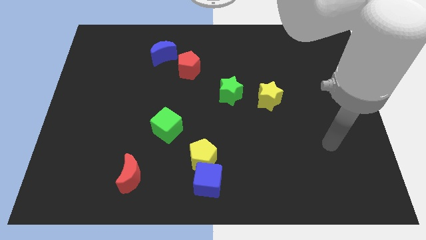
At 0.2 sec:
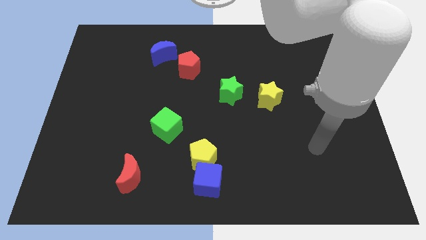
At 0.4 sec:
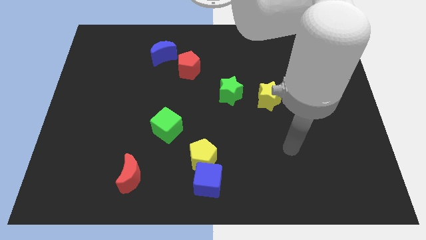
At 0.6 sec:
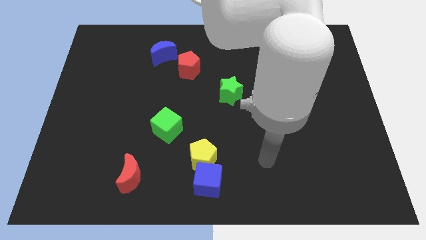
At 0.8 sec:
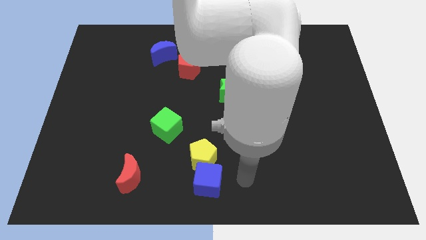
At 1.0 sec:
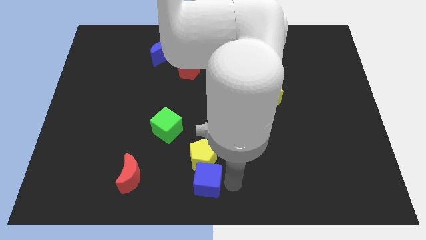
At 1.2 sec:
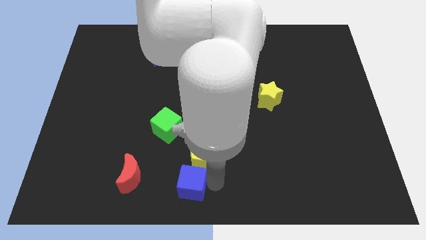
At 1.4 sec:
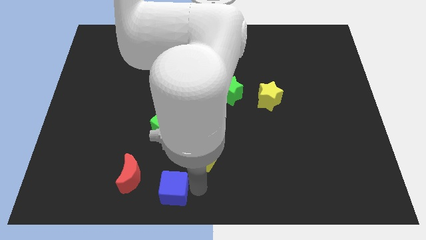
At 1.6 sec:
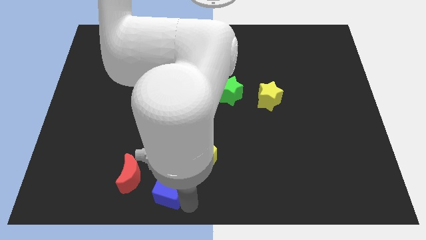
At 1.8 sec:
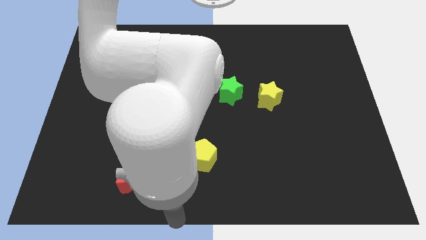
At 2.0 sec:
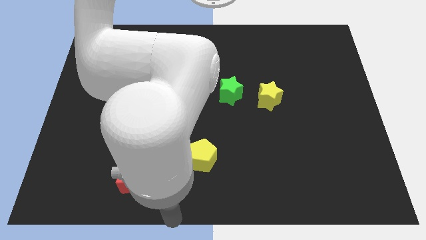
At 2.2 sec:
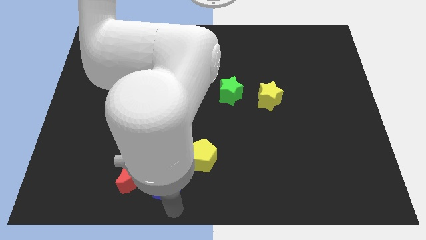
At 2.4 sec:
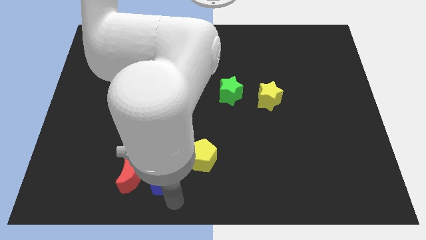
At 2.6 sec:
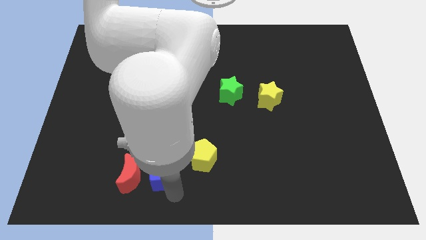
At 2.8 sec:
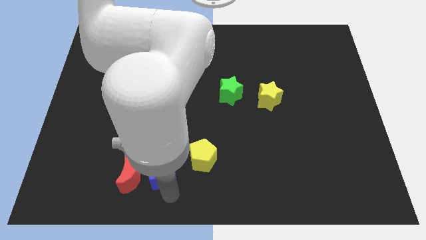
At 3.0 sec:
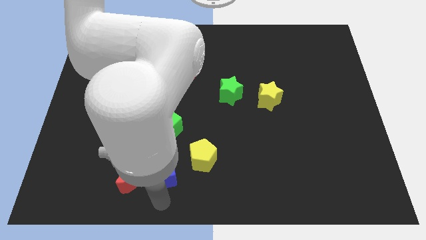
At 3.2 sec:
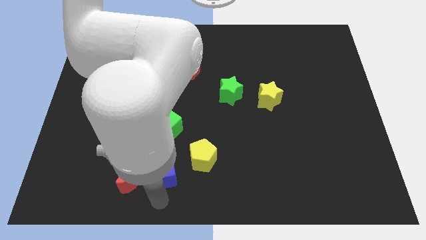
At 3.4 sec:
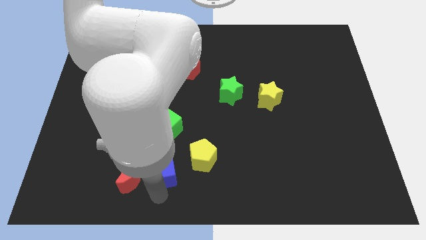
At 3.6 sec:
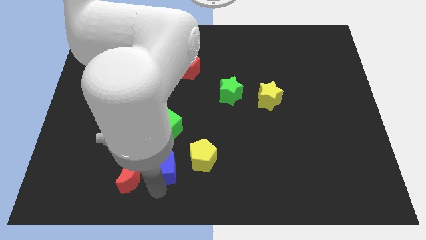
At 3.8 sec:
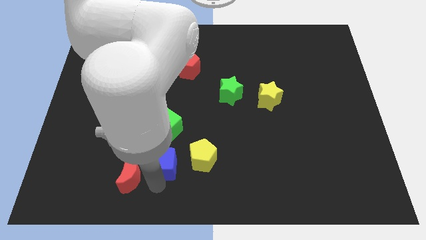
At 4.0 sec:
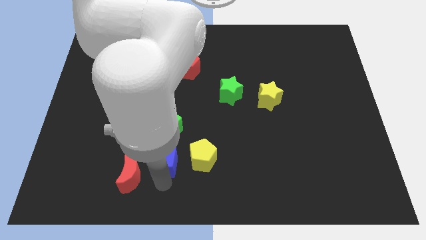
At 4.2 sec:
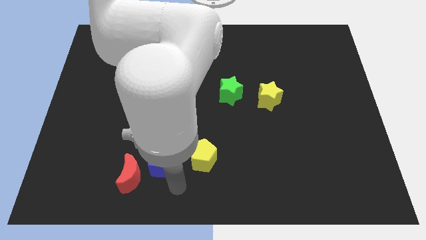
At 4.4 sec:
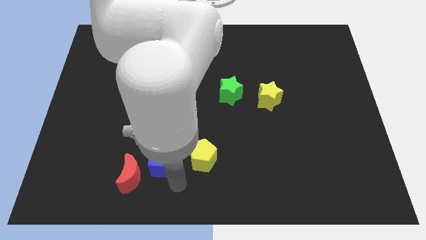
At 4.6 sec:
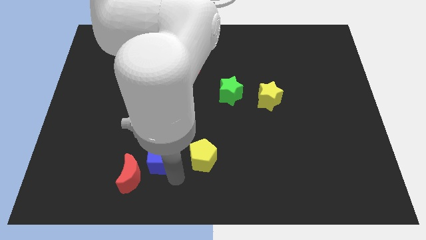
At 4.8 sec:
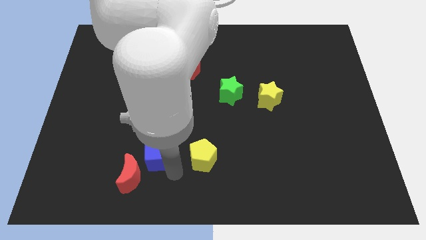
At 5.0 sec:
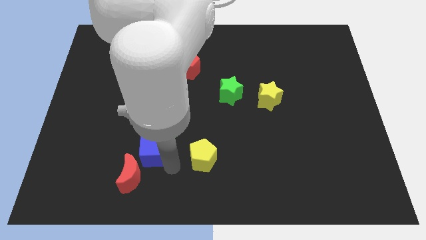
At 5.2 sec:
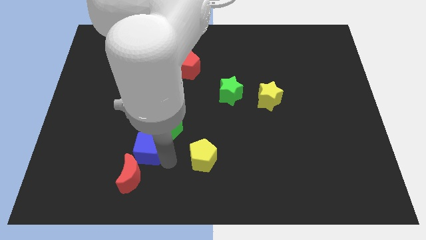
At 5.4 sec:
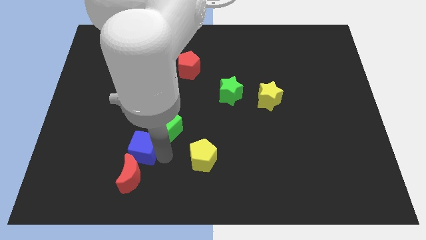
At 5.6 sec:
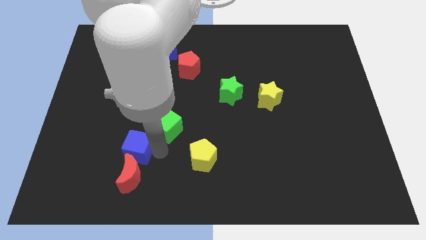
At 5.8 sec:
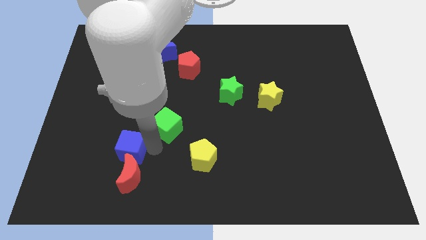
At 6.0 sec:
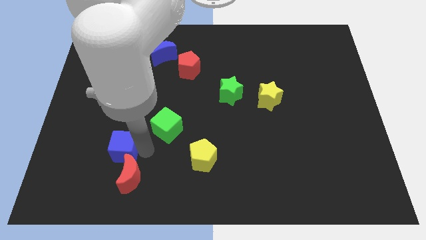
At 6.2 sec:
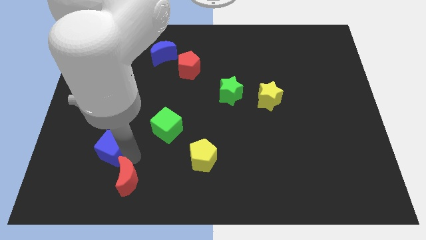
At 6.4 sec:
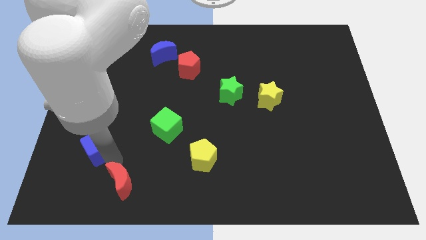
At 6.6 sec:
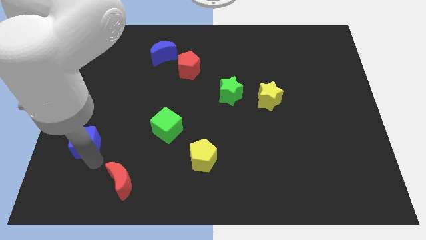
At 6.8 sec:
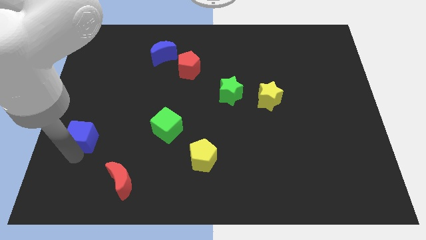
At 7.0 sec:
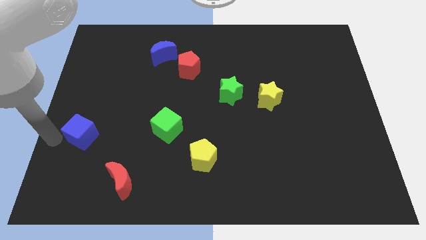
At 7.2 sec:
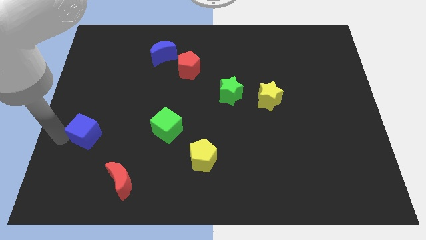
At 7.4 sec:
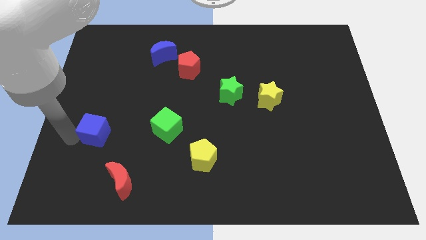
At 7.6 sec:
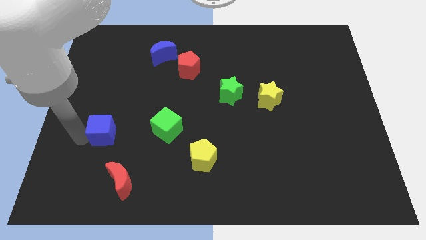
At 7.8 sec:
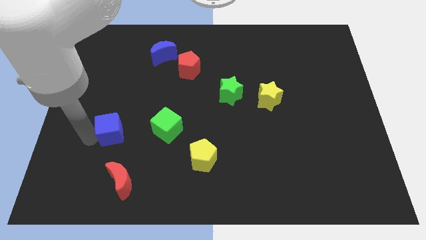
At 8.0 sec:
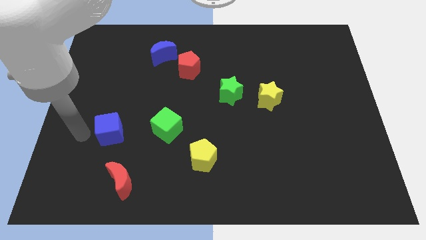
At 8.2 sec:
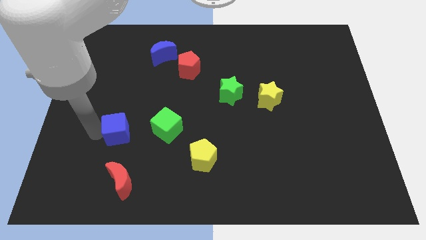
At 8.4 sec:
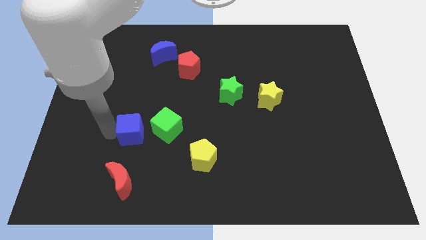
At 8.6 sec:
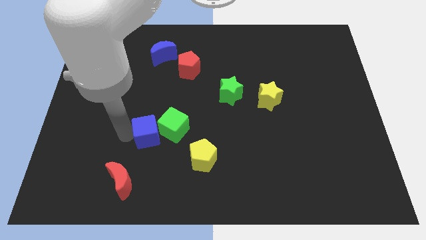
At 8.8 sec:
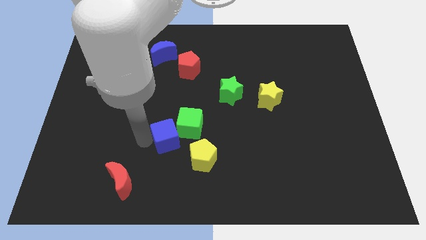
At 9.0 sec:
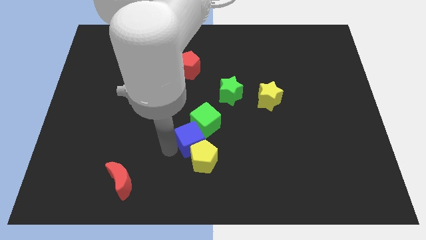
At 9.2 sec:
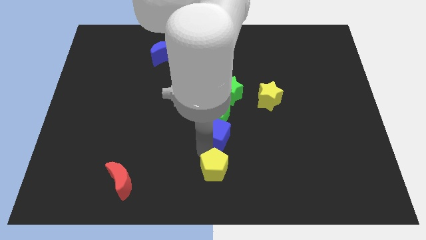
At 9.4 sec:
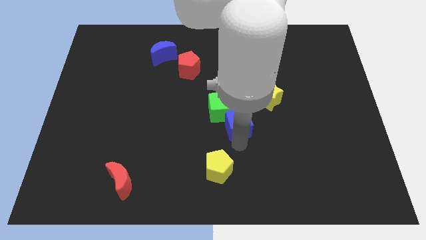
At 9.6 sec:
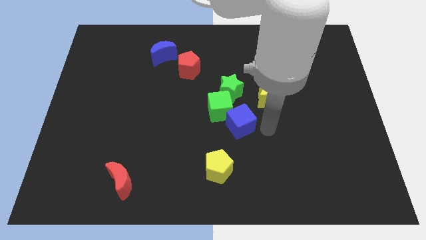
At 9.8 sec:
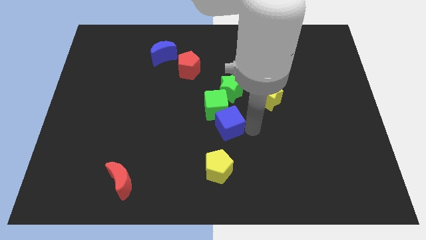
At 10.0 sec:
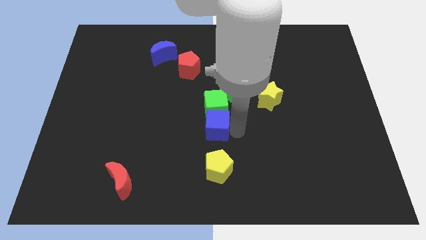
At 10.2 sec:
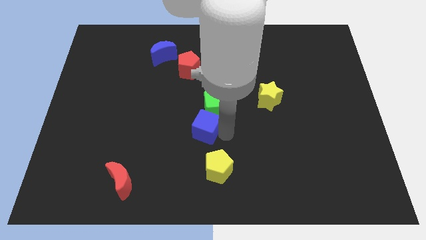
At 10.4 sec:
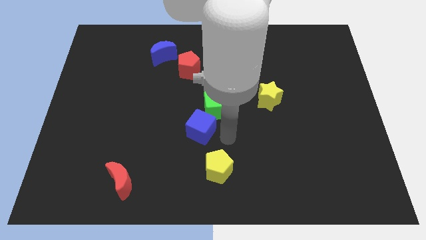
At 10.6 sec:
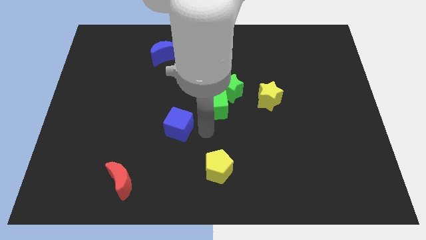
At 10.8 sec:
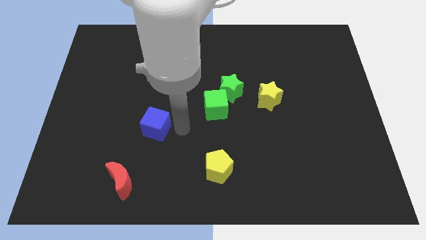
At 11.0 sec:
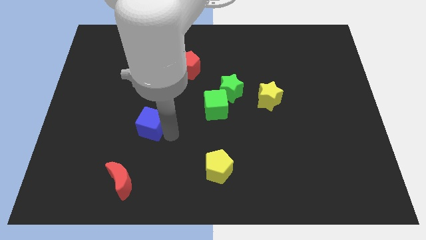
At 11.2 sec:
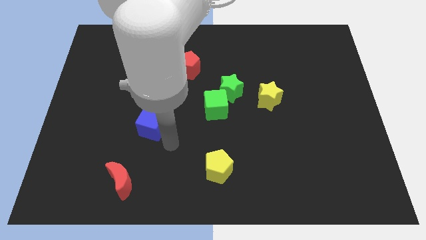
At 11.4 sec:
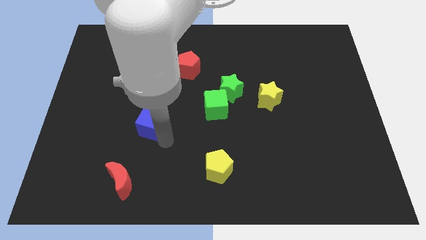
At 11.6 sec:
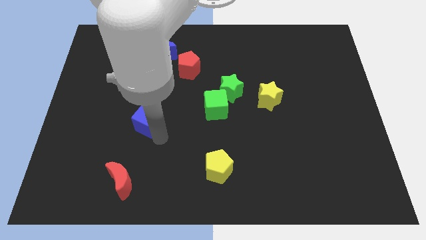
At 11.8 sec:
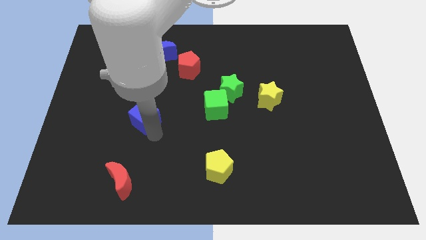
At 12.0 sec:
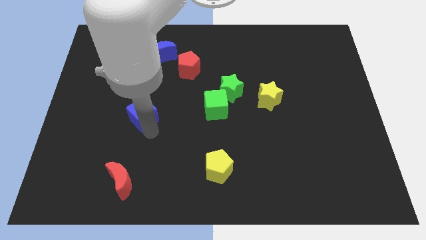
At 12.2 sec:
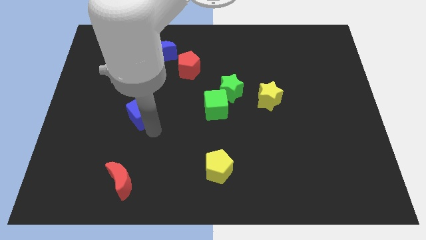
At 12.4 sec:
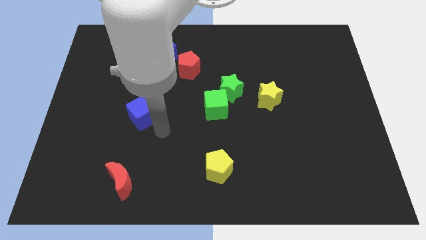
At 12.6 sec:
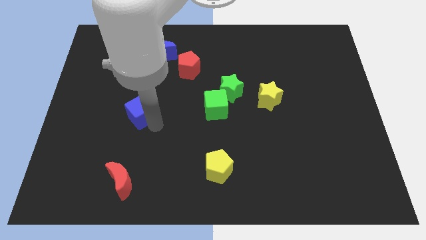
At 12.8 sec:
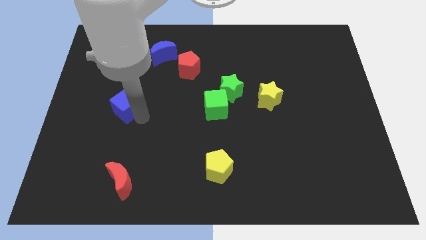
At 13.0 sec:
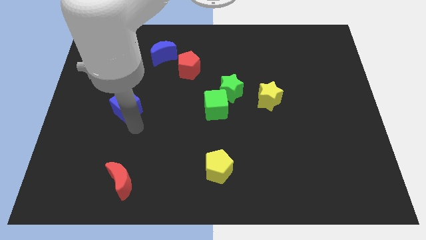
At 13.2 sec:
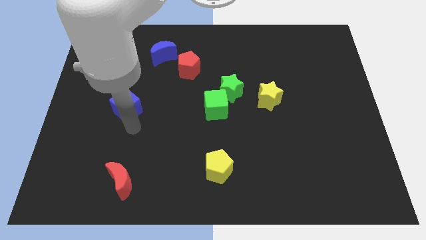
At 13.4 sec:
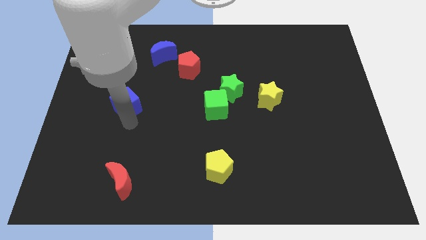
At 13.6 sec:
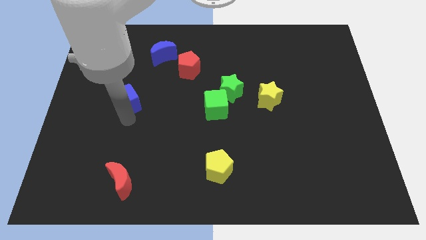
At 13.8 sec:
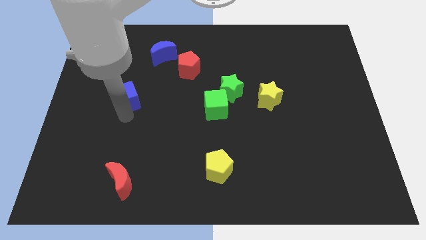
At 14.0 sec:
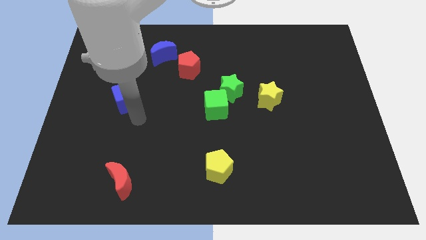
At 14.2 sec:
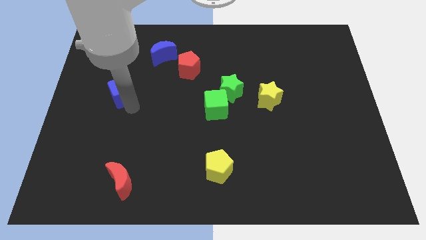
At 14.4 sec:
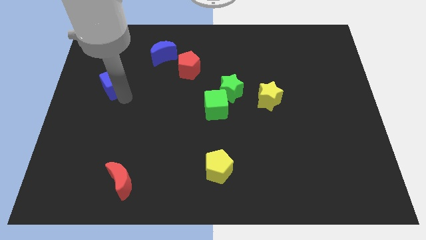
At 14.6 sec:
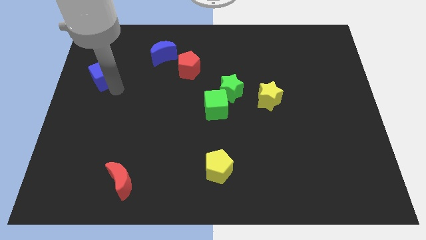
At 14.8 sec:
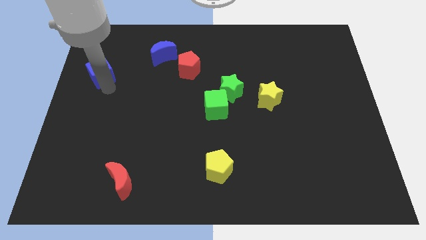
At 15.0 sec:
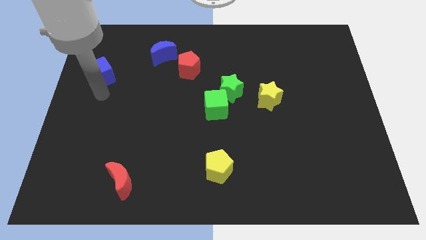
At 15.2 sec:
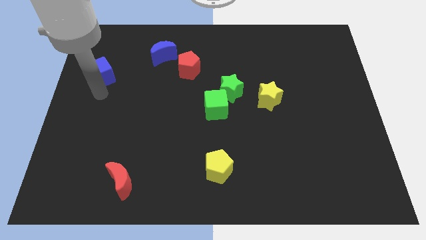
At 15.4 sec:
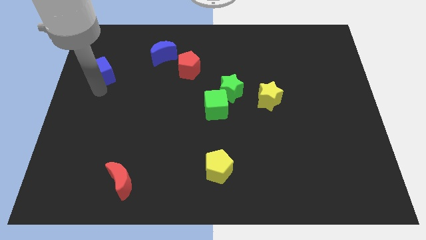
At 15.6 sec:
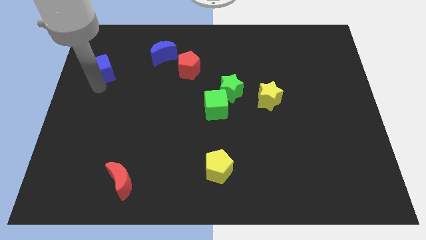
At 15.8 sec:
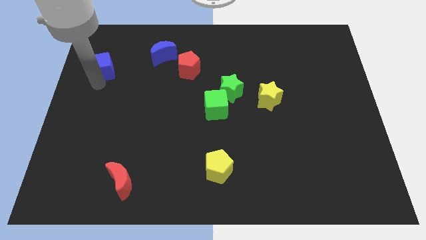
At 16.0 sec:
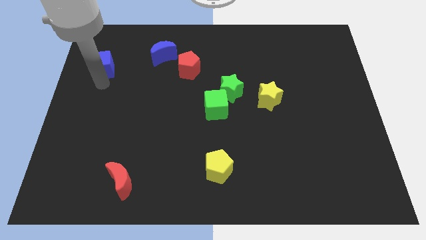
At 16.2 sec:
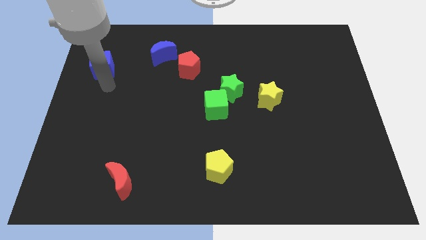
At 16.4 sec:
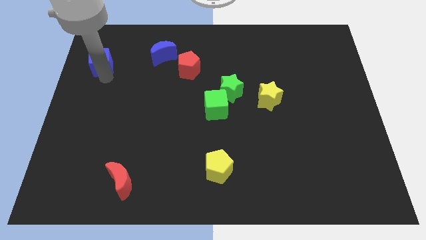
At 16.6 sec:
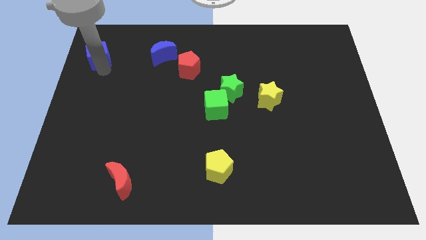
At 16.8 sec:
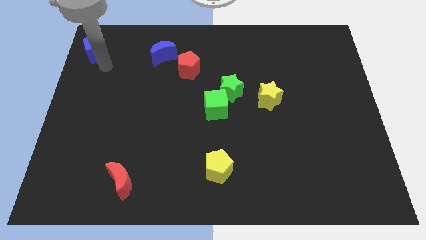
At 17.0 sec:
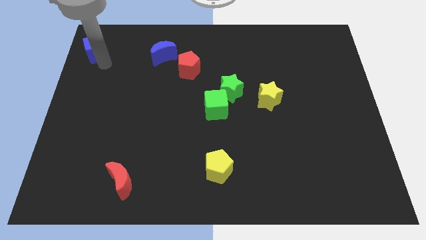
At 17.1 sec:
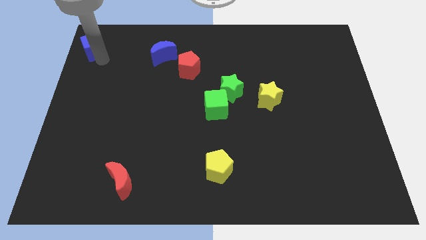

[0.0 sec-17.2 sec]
put the blue cube to the upper left corner
